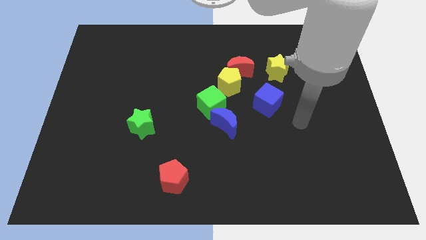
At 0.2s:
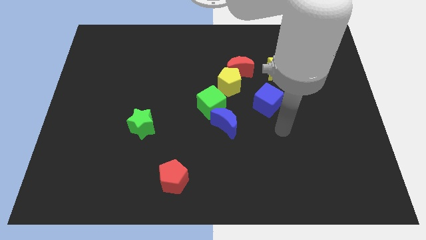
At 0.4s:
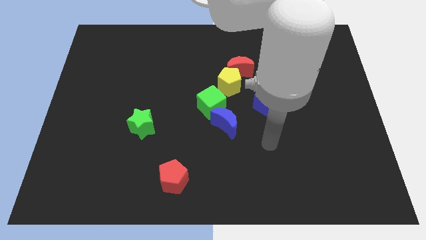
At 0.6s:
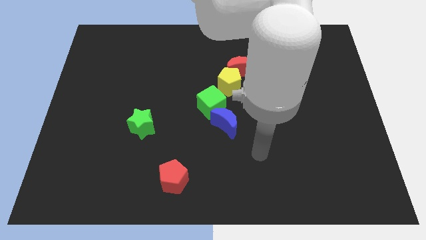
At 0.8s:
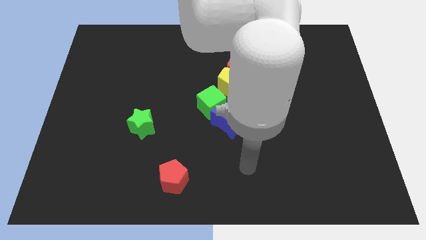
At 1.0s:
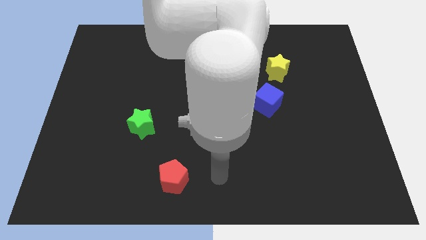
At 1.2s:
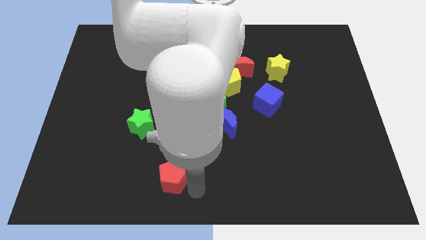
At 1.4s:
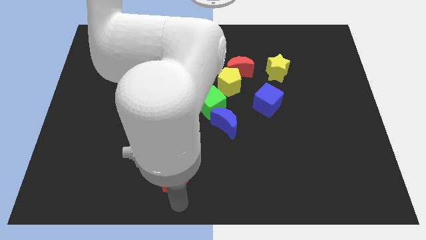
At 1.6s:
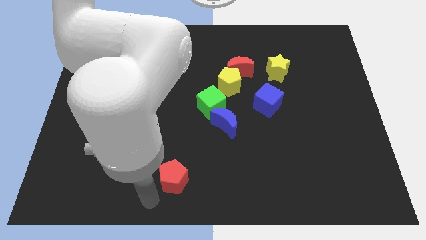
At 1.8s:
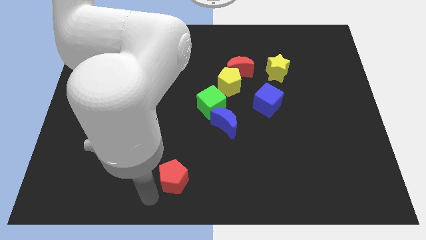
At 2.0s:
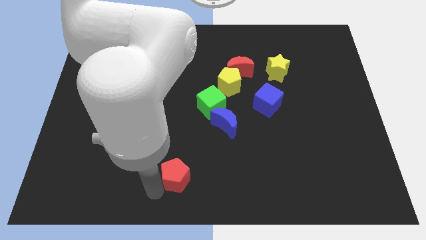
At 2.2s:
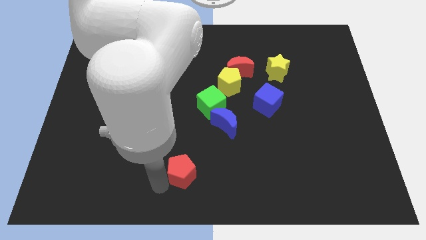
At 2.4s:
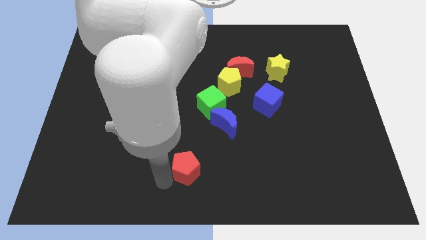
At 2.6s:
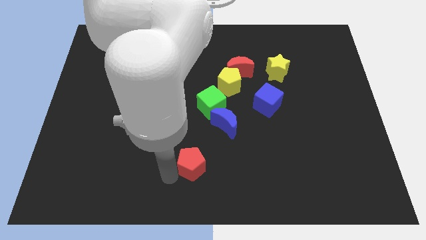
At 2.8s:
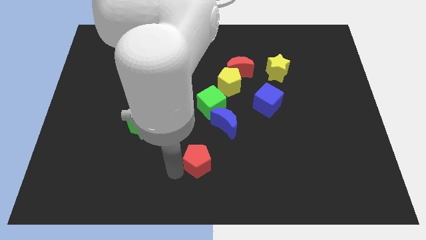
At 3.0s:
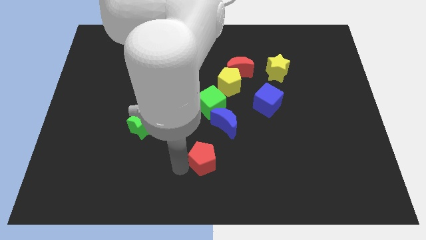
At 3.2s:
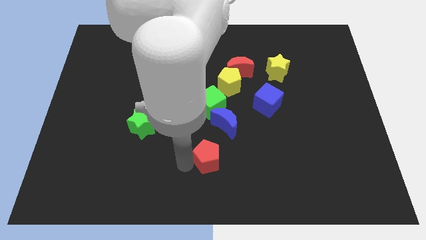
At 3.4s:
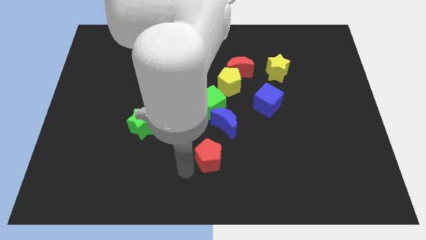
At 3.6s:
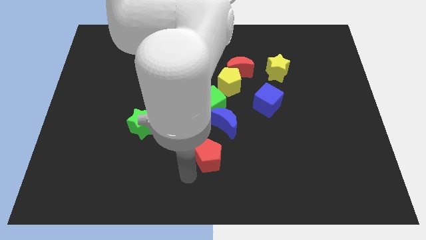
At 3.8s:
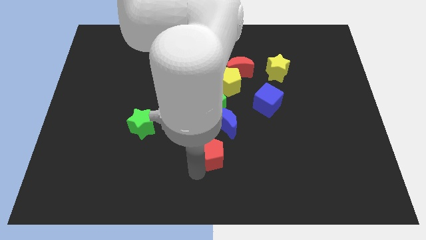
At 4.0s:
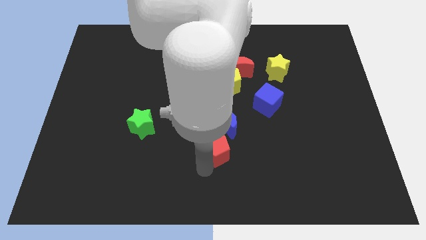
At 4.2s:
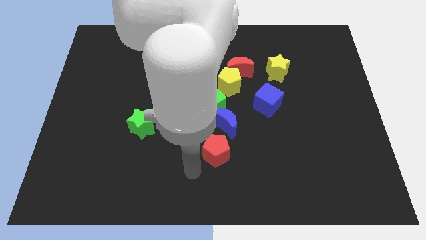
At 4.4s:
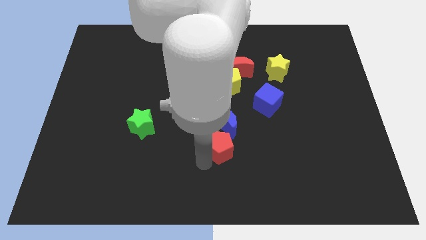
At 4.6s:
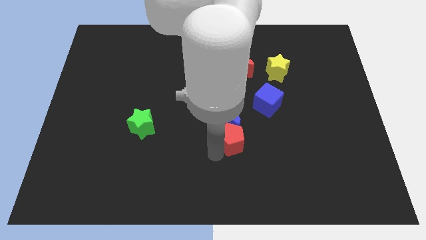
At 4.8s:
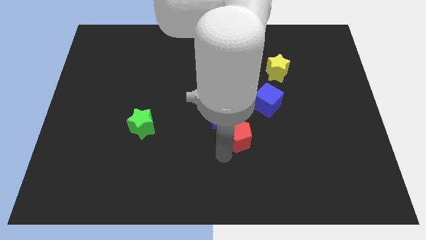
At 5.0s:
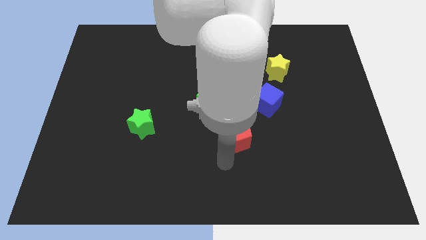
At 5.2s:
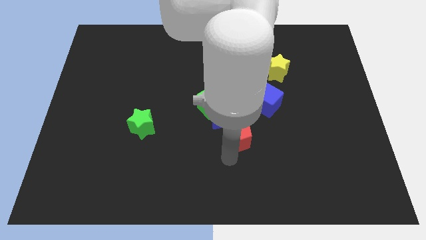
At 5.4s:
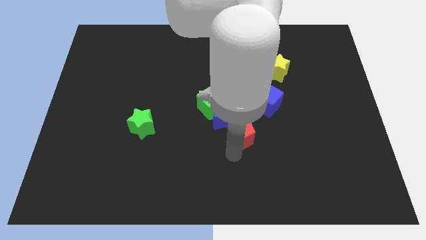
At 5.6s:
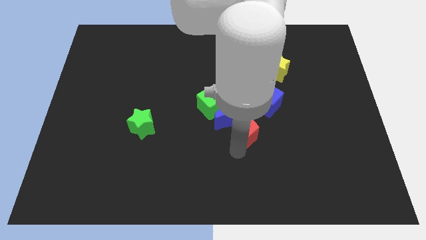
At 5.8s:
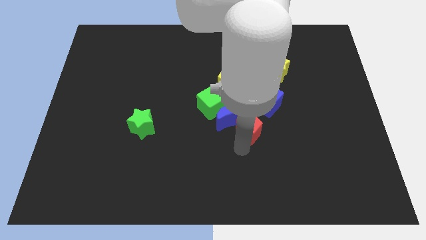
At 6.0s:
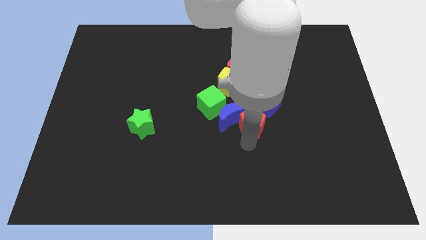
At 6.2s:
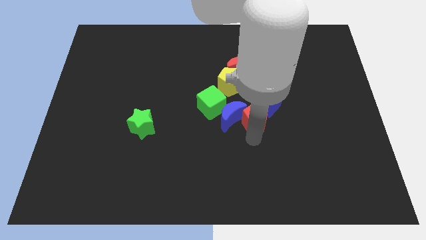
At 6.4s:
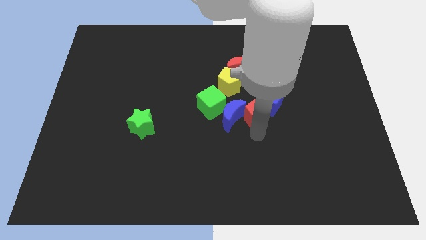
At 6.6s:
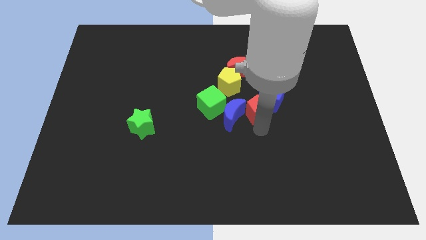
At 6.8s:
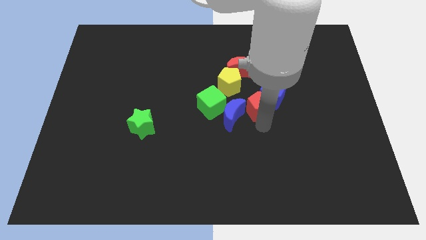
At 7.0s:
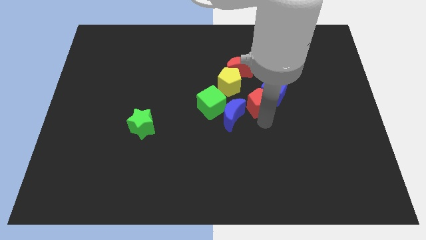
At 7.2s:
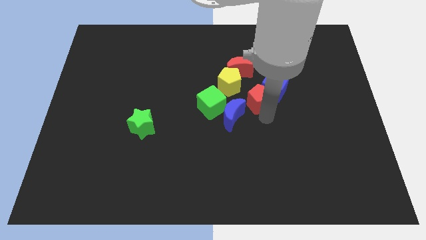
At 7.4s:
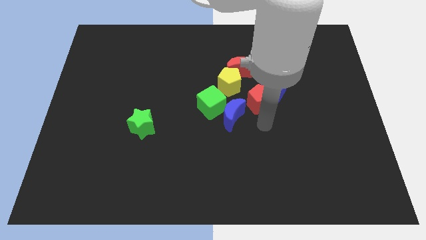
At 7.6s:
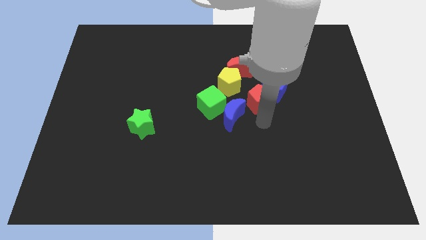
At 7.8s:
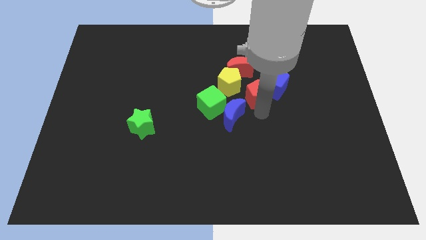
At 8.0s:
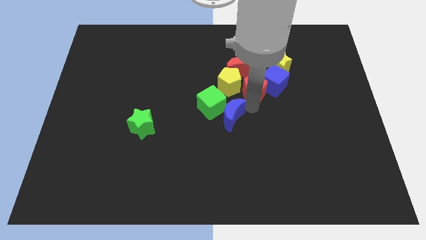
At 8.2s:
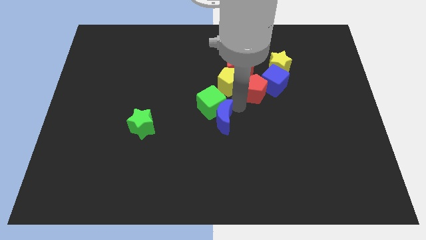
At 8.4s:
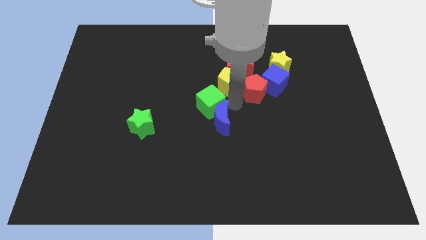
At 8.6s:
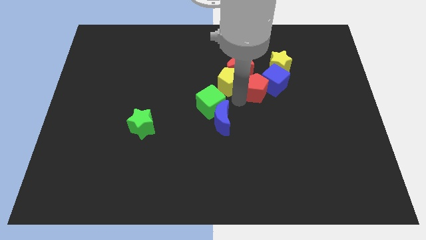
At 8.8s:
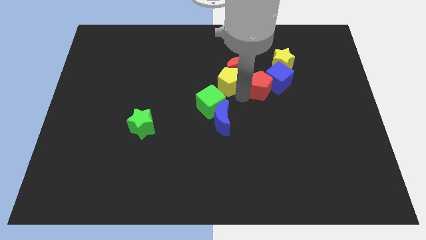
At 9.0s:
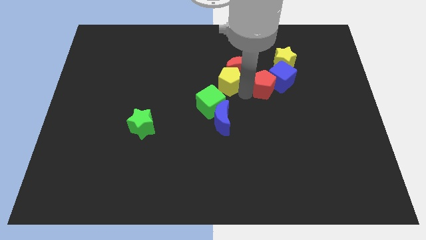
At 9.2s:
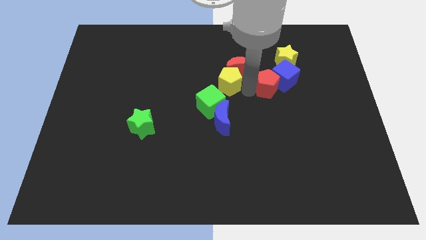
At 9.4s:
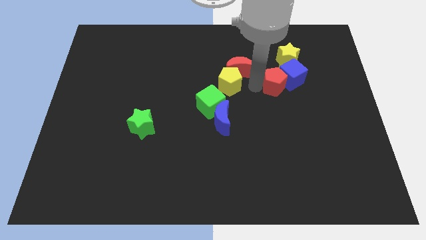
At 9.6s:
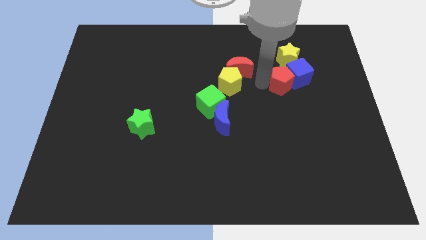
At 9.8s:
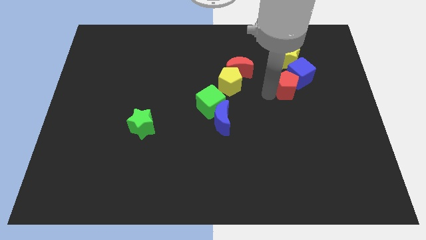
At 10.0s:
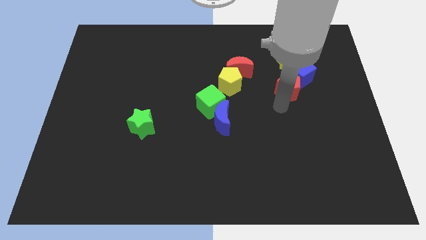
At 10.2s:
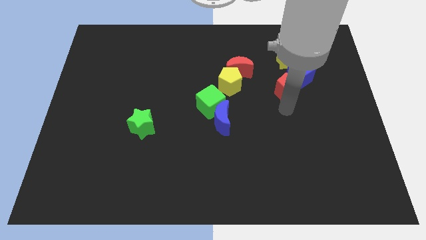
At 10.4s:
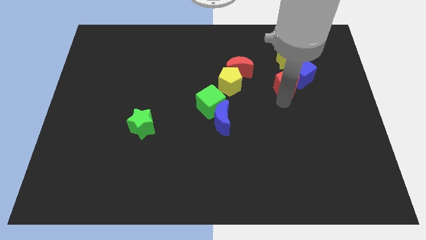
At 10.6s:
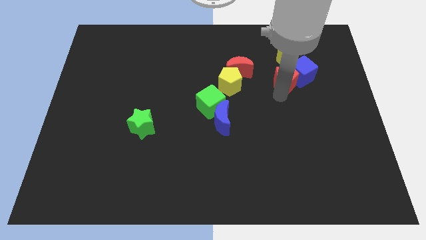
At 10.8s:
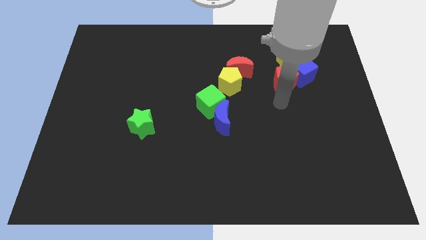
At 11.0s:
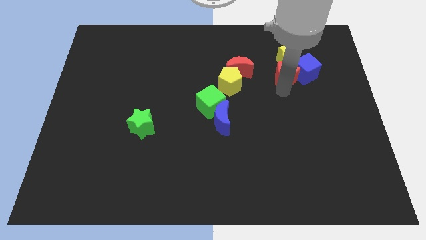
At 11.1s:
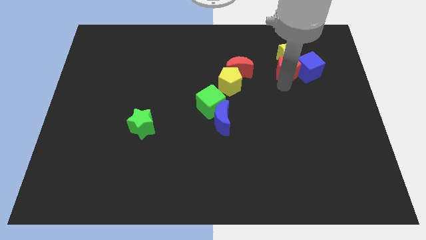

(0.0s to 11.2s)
slide the red pentagon towards the yellow star

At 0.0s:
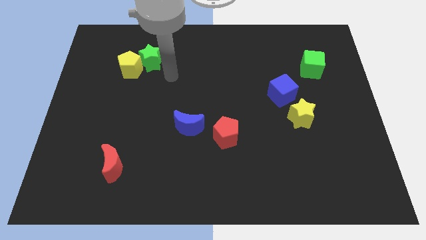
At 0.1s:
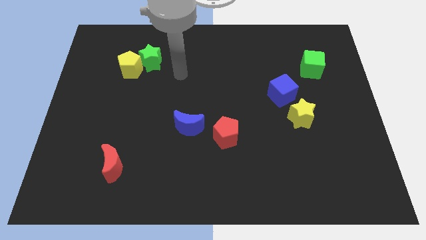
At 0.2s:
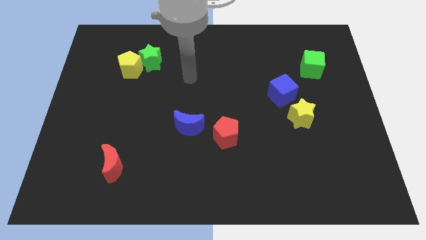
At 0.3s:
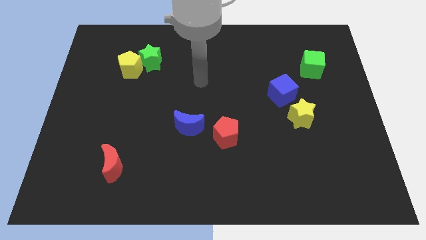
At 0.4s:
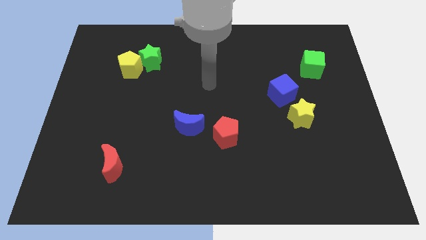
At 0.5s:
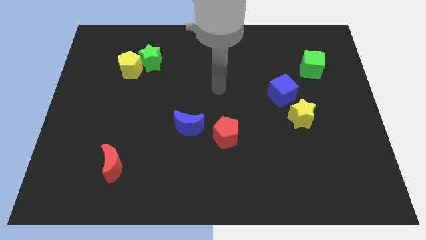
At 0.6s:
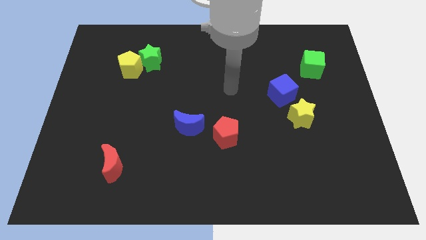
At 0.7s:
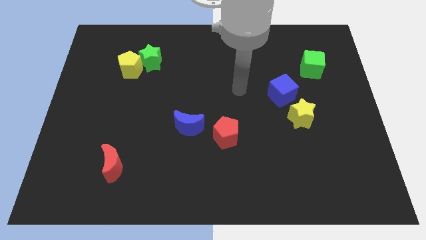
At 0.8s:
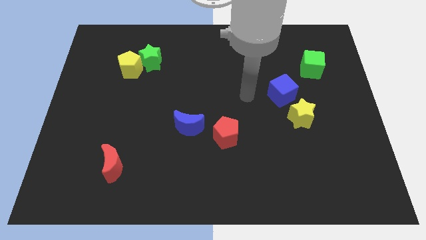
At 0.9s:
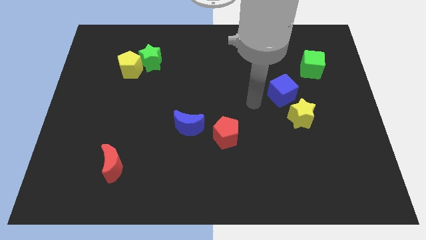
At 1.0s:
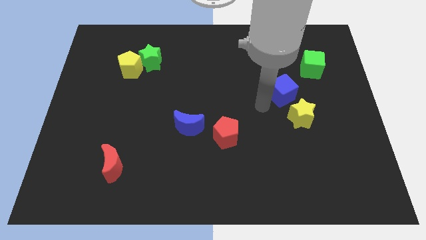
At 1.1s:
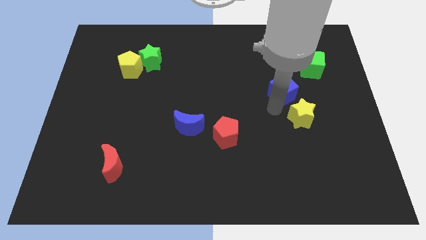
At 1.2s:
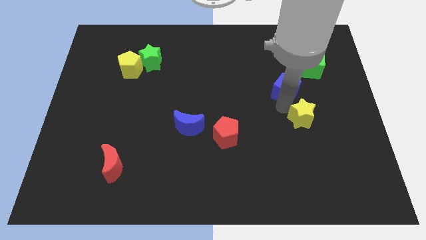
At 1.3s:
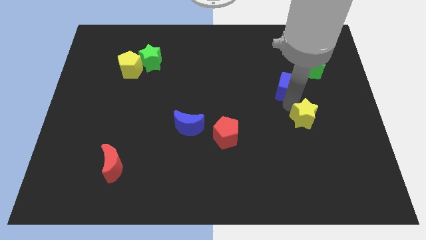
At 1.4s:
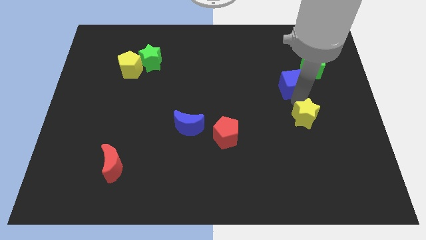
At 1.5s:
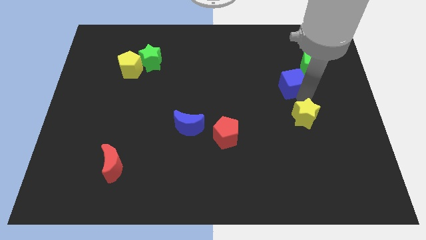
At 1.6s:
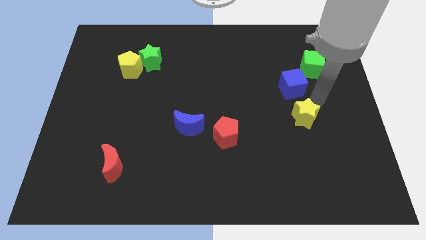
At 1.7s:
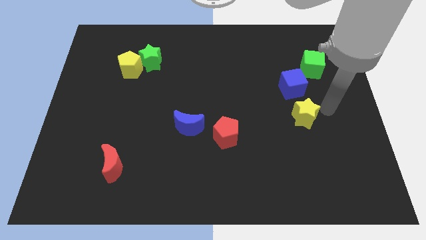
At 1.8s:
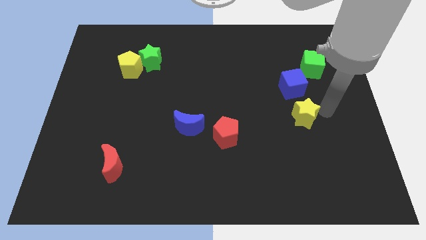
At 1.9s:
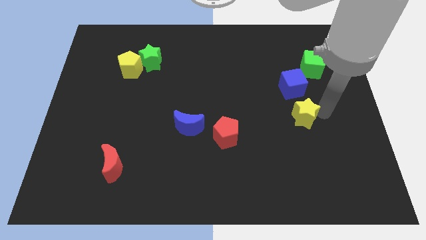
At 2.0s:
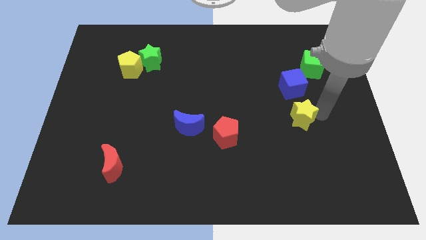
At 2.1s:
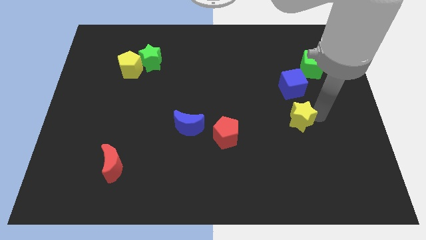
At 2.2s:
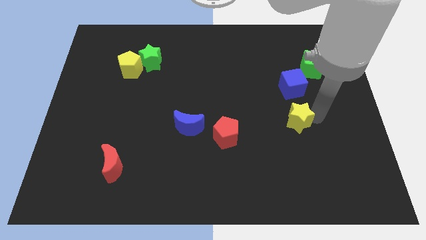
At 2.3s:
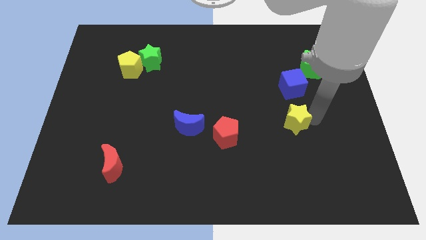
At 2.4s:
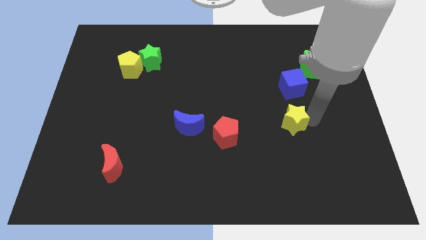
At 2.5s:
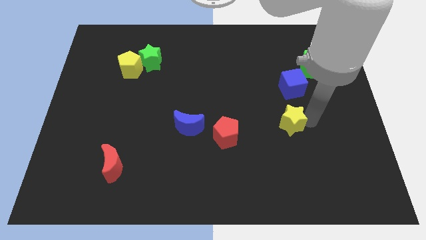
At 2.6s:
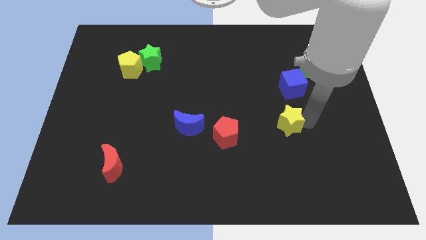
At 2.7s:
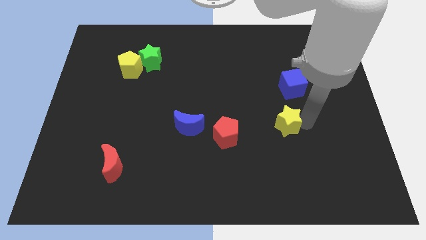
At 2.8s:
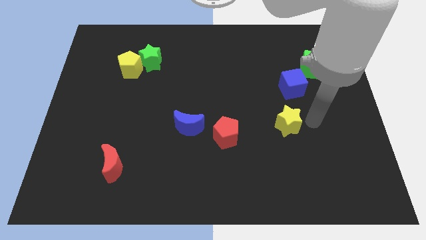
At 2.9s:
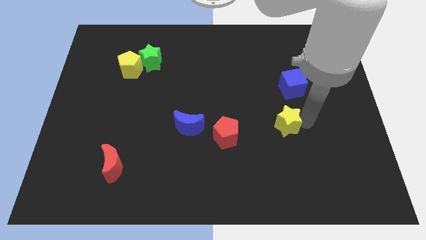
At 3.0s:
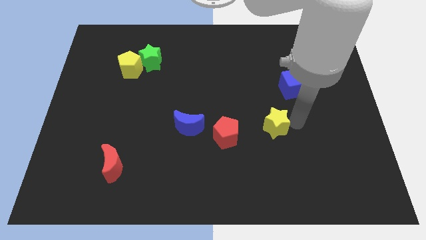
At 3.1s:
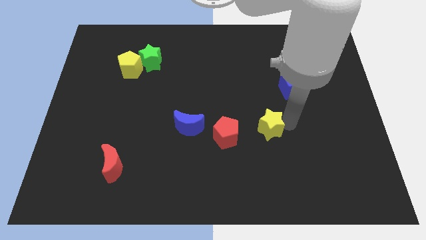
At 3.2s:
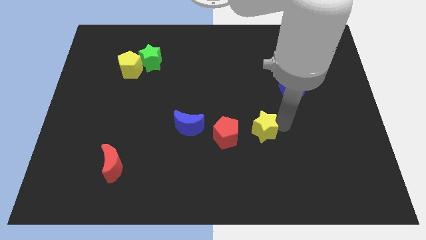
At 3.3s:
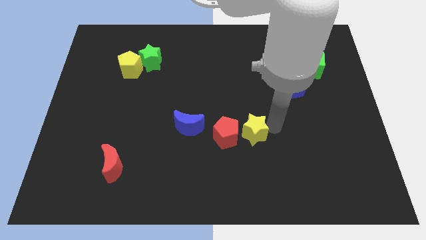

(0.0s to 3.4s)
move the yellow star to the red pentagon
